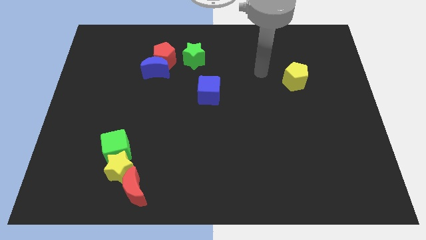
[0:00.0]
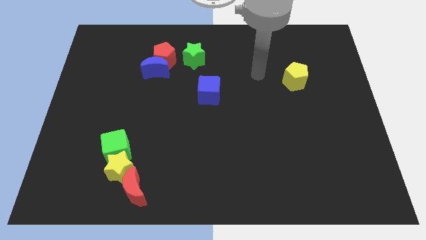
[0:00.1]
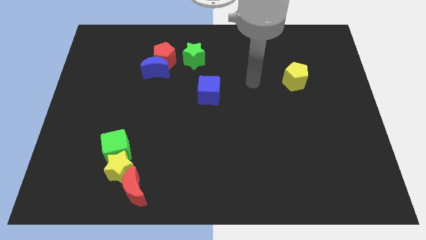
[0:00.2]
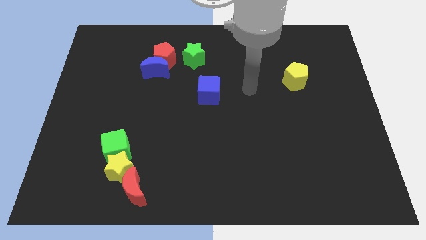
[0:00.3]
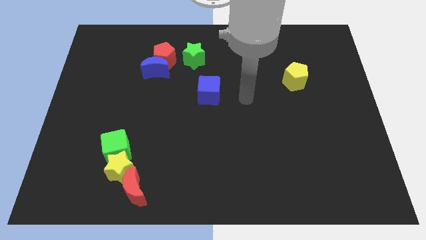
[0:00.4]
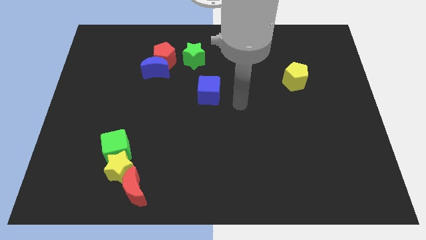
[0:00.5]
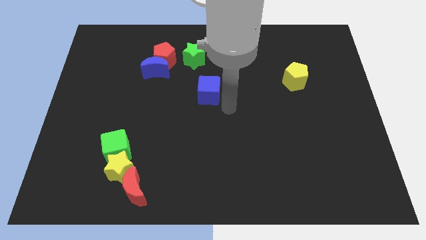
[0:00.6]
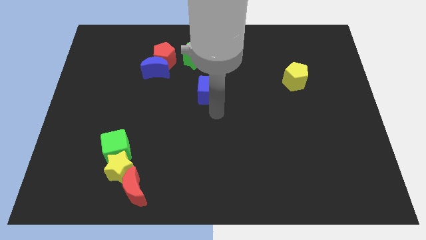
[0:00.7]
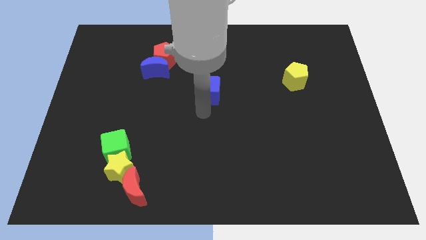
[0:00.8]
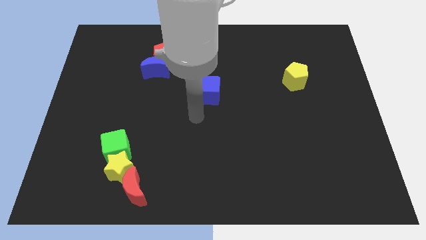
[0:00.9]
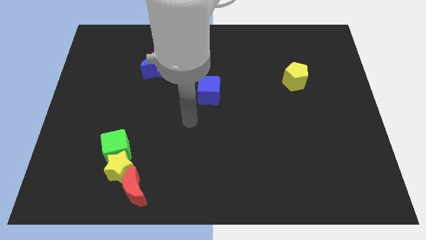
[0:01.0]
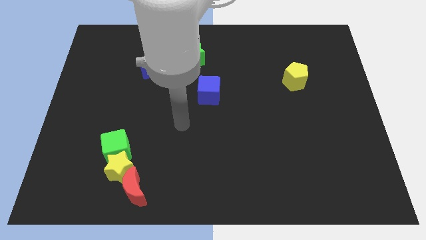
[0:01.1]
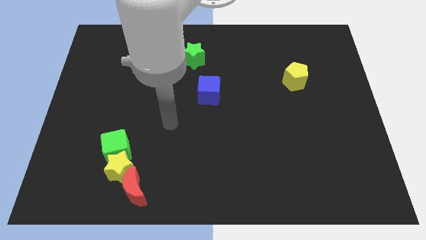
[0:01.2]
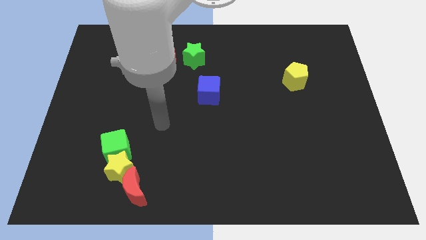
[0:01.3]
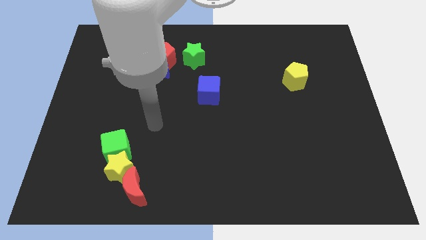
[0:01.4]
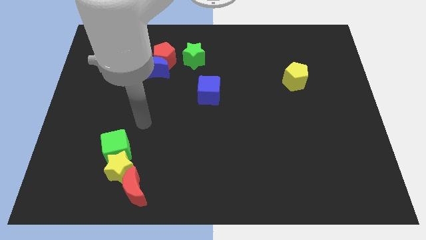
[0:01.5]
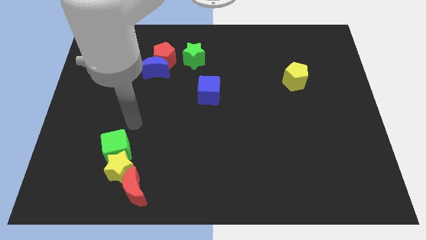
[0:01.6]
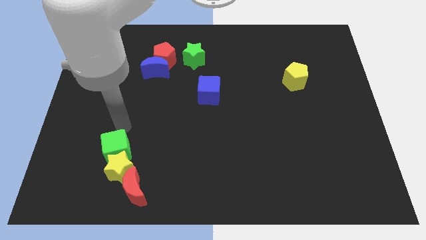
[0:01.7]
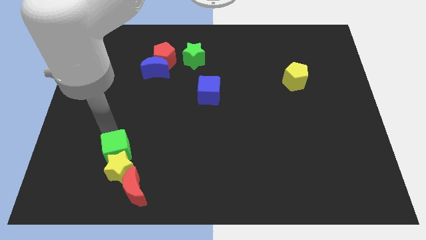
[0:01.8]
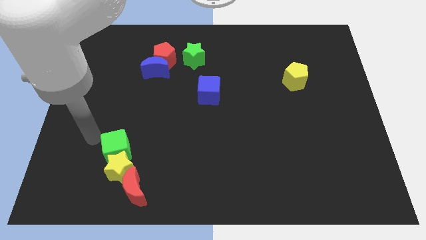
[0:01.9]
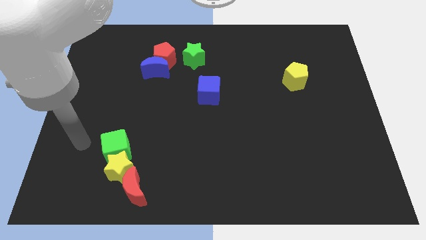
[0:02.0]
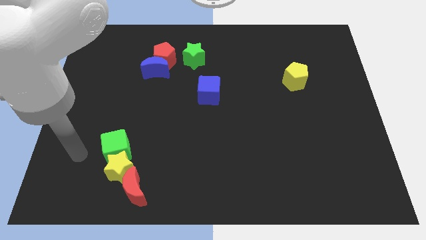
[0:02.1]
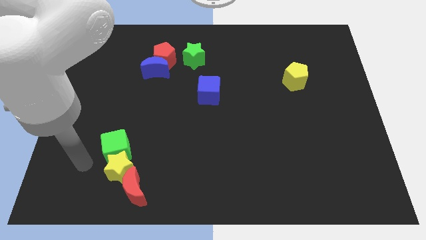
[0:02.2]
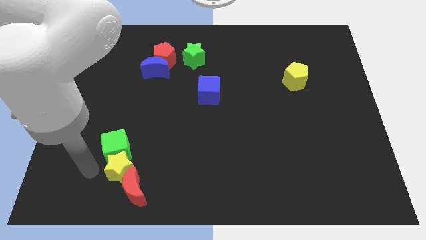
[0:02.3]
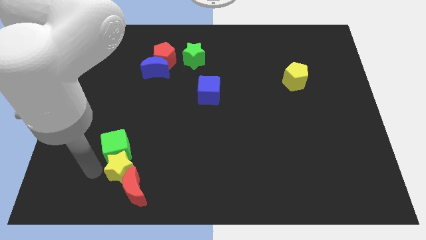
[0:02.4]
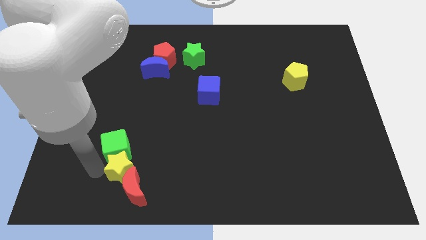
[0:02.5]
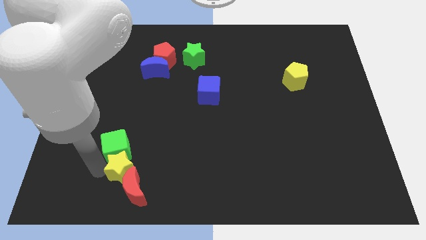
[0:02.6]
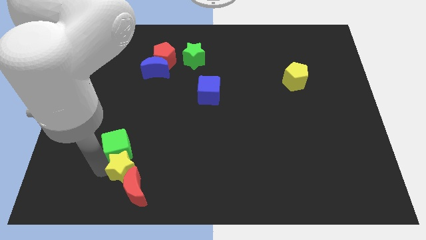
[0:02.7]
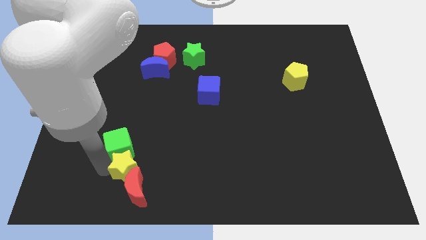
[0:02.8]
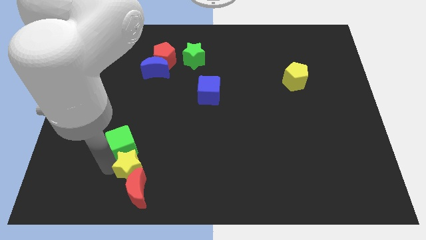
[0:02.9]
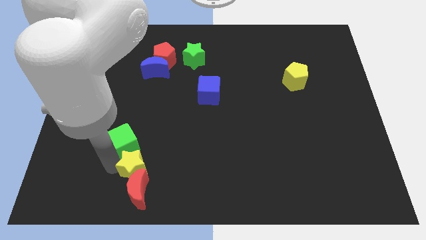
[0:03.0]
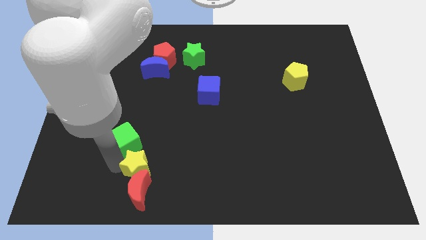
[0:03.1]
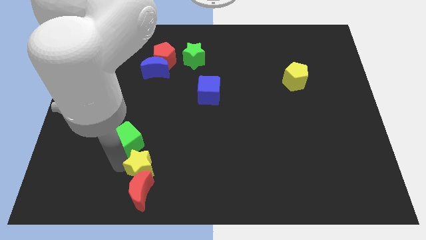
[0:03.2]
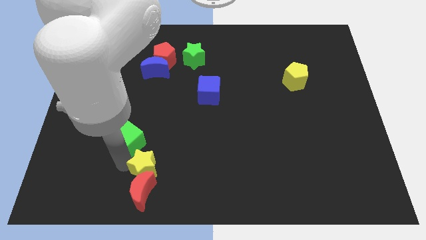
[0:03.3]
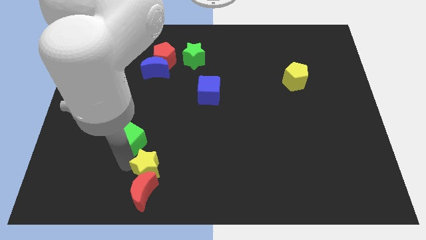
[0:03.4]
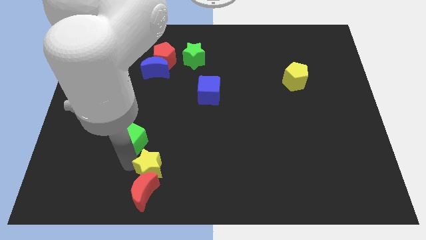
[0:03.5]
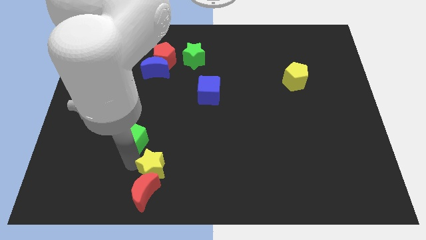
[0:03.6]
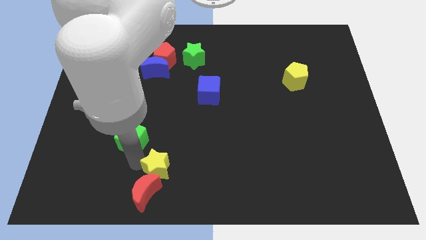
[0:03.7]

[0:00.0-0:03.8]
slightly move the yellow star to the right

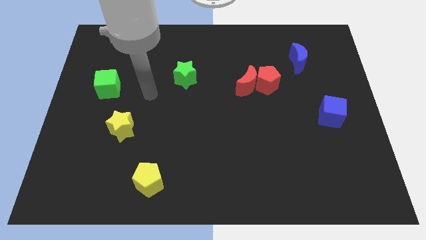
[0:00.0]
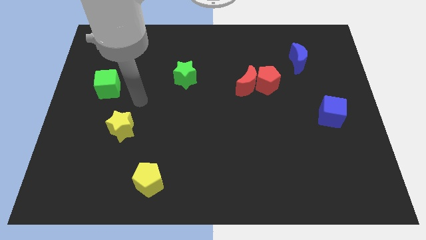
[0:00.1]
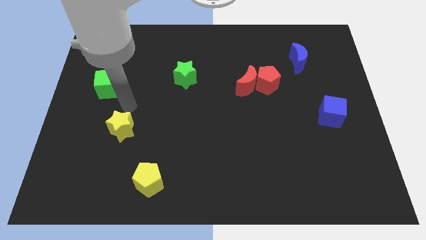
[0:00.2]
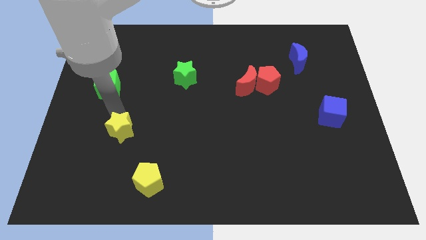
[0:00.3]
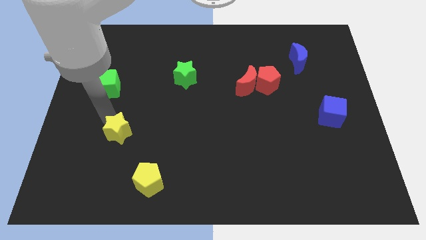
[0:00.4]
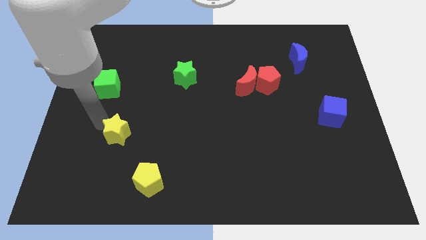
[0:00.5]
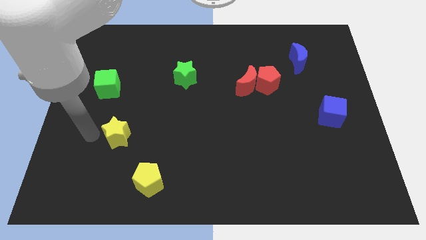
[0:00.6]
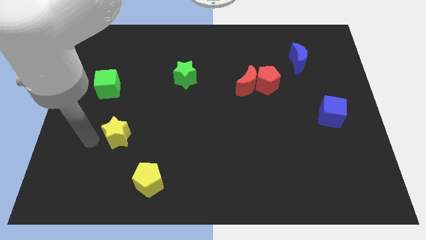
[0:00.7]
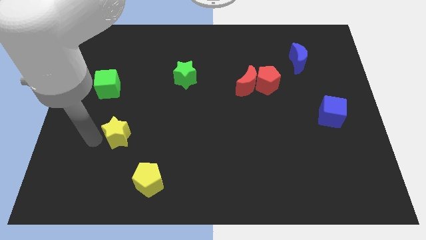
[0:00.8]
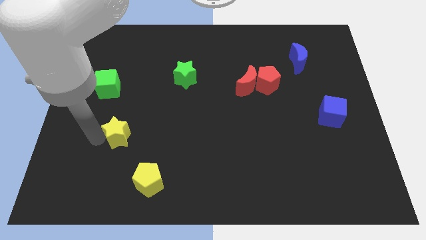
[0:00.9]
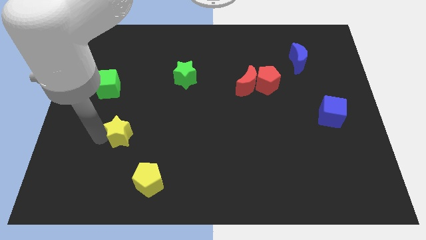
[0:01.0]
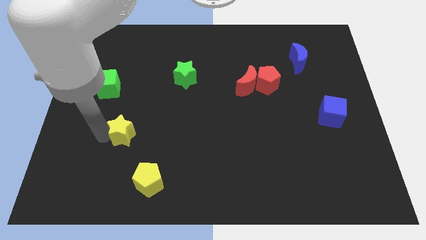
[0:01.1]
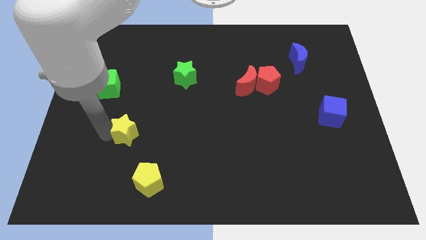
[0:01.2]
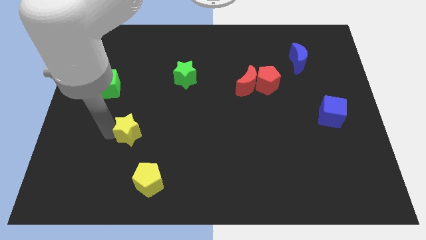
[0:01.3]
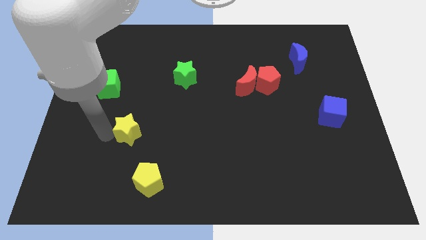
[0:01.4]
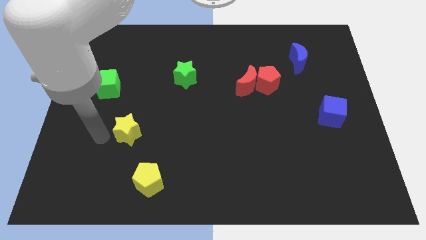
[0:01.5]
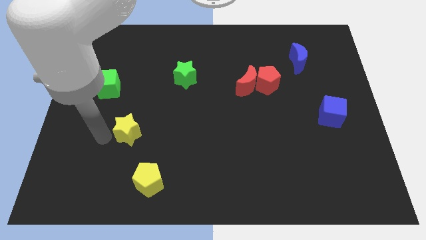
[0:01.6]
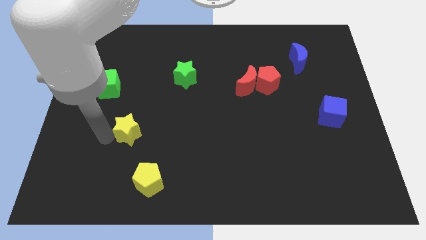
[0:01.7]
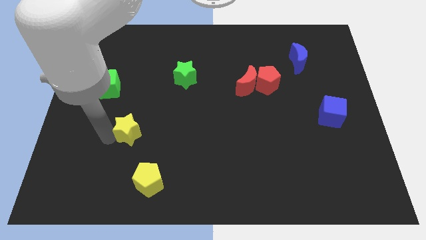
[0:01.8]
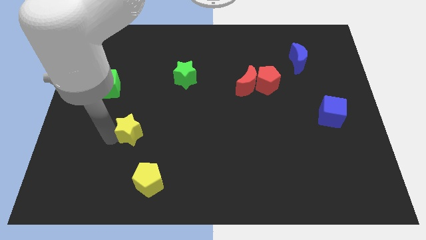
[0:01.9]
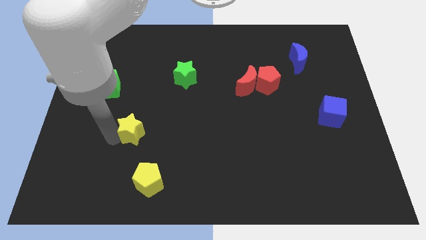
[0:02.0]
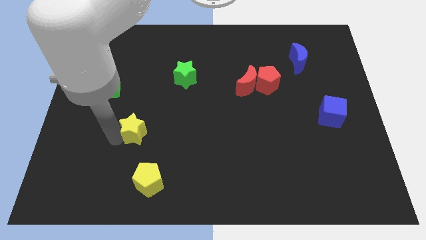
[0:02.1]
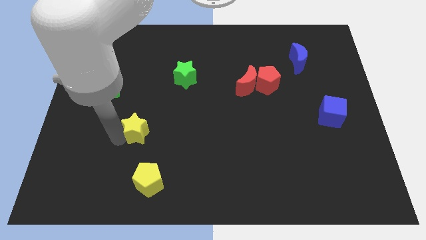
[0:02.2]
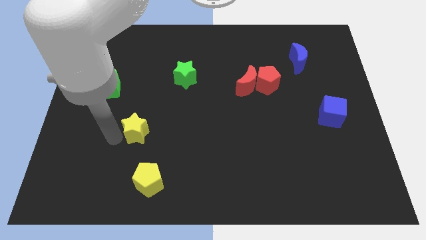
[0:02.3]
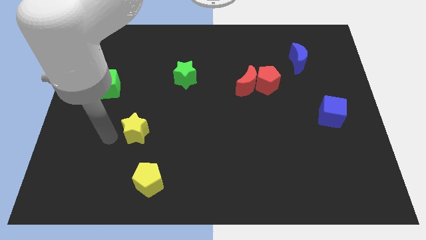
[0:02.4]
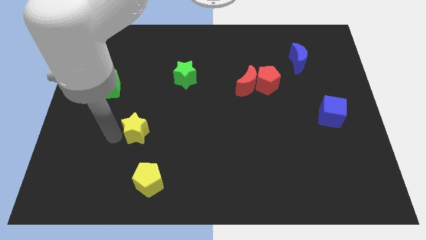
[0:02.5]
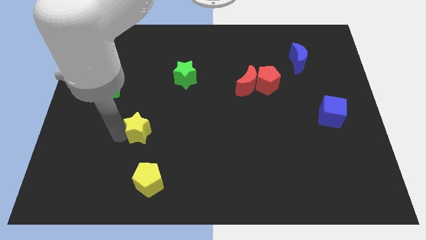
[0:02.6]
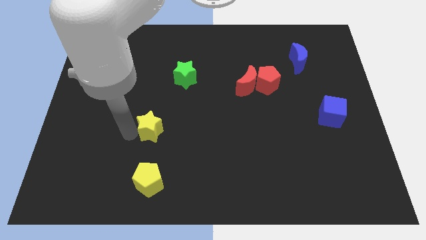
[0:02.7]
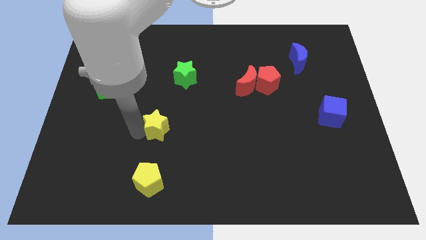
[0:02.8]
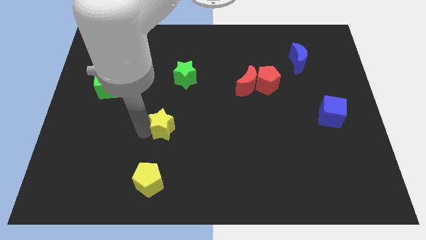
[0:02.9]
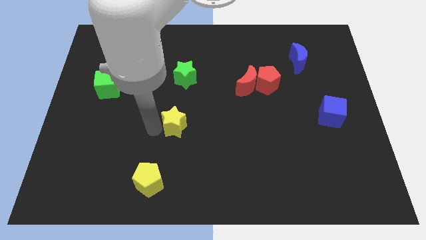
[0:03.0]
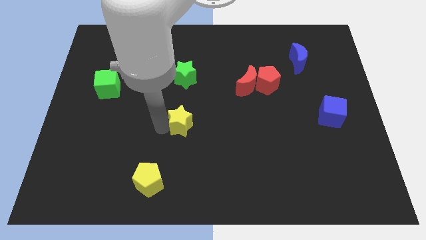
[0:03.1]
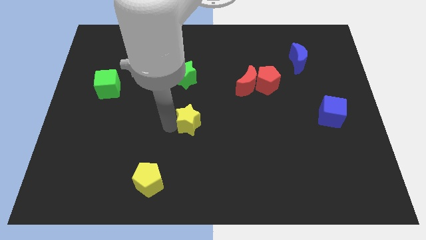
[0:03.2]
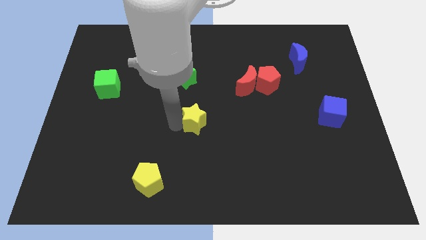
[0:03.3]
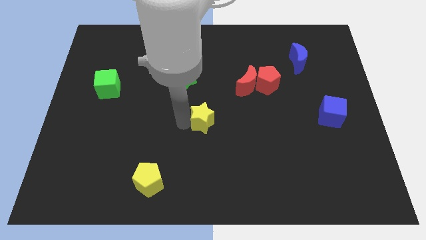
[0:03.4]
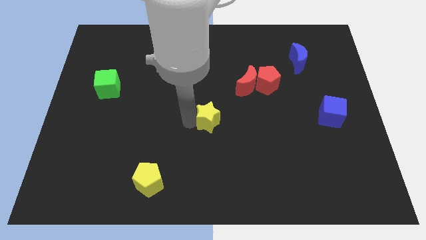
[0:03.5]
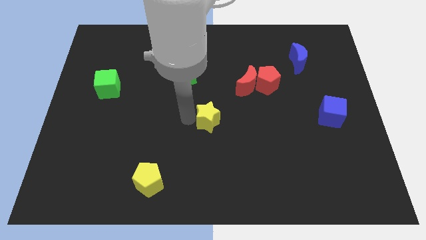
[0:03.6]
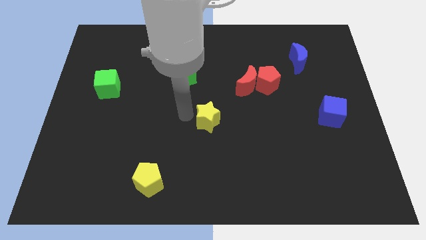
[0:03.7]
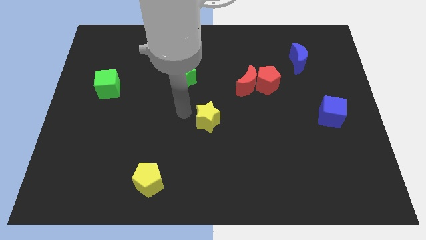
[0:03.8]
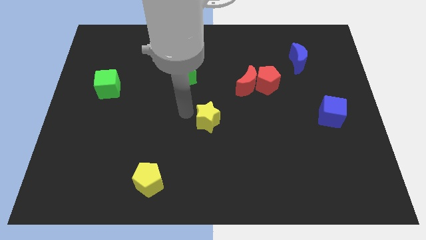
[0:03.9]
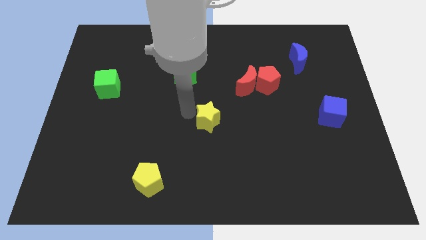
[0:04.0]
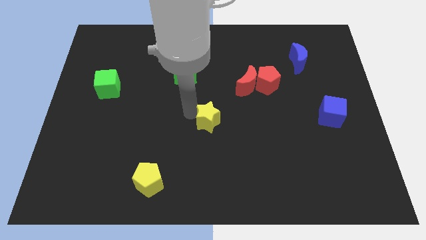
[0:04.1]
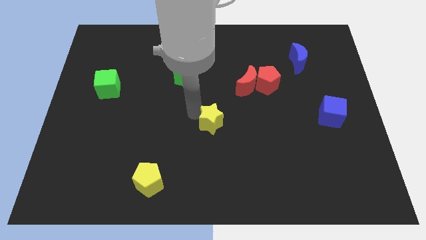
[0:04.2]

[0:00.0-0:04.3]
push the yellow star right

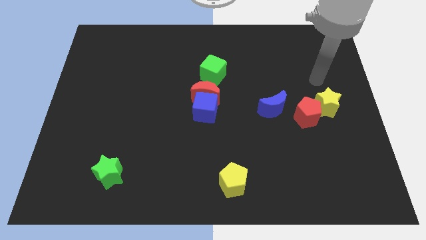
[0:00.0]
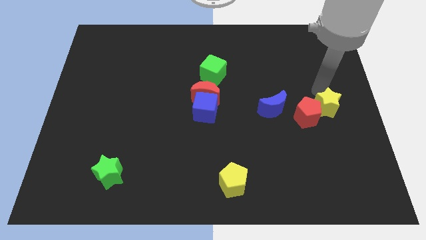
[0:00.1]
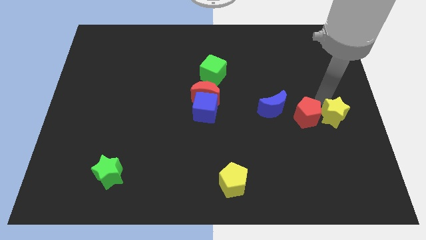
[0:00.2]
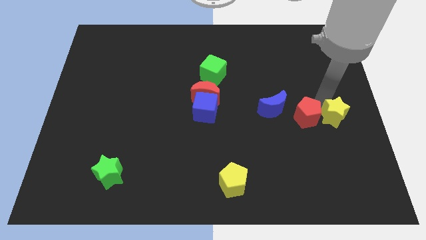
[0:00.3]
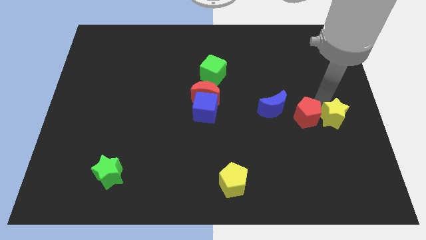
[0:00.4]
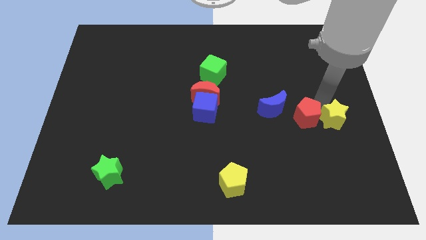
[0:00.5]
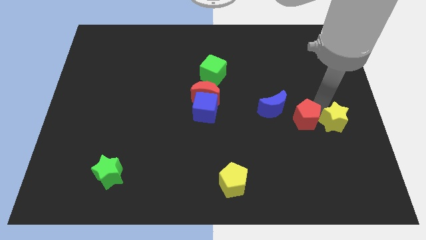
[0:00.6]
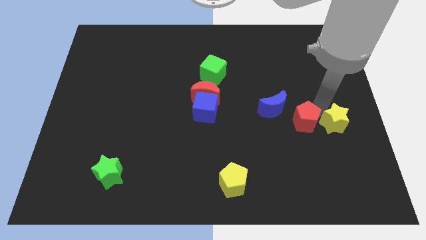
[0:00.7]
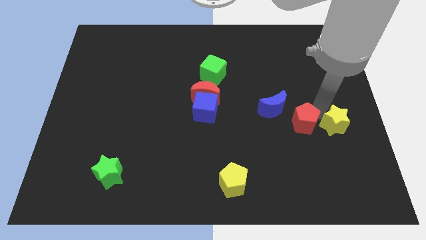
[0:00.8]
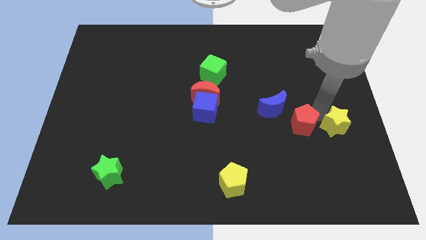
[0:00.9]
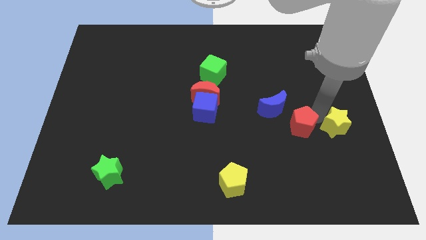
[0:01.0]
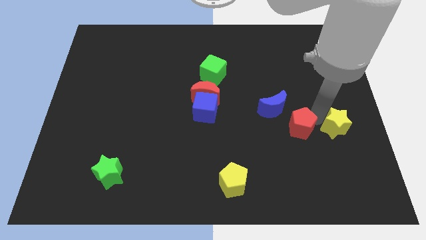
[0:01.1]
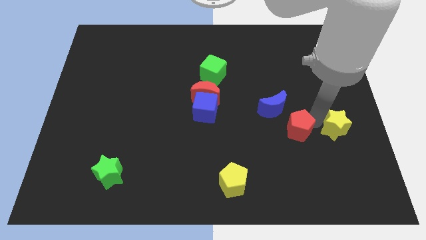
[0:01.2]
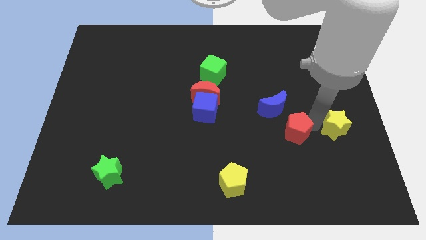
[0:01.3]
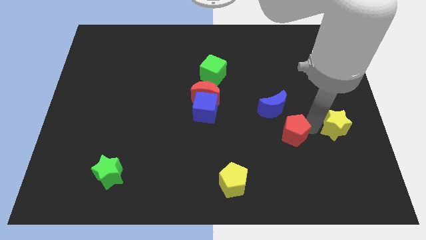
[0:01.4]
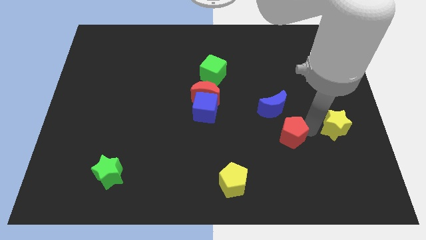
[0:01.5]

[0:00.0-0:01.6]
slightly move the red pentagon downwards and left diagonally
